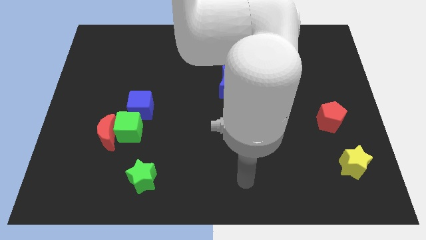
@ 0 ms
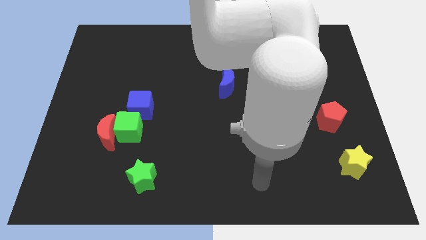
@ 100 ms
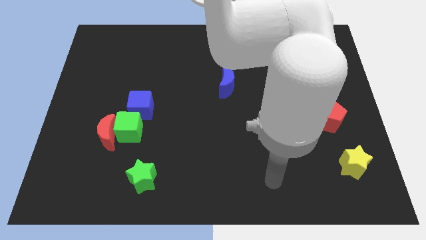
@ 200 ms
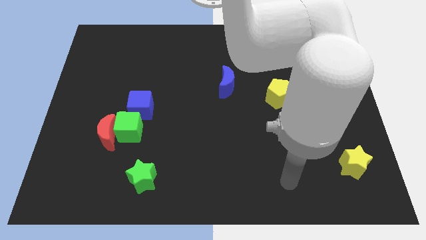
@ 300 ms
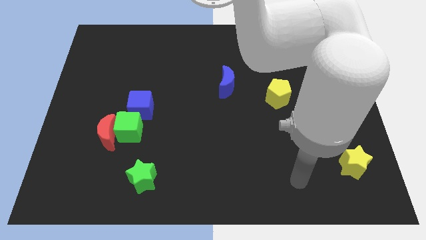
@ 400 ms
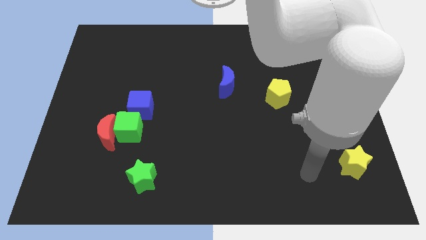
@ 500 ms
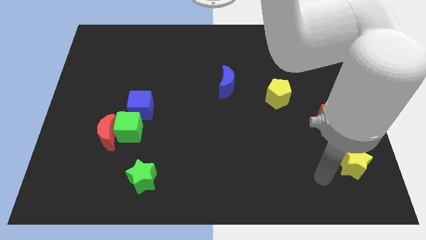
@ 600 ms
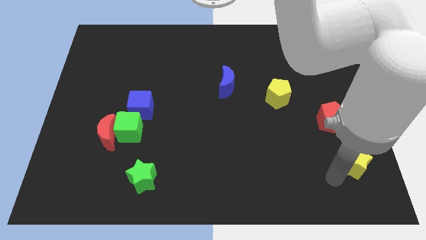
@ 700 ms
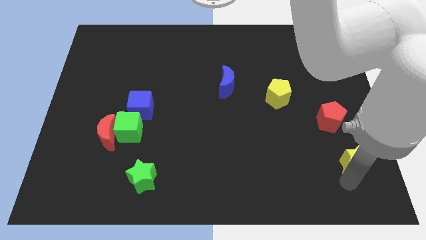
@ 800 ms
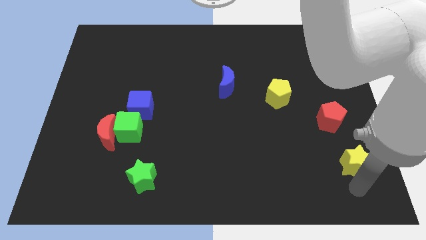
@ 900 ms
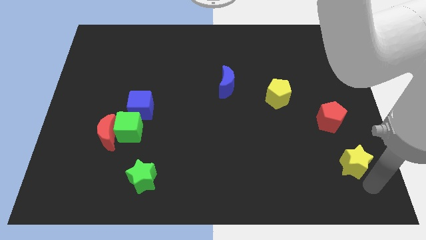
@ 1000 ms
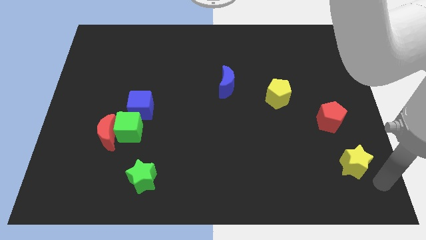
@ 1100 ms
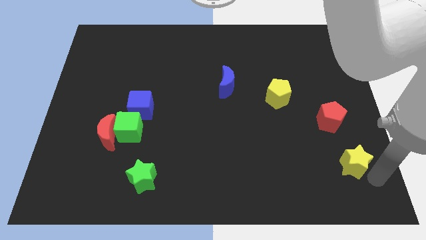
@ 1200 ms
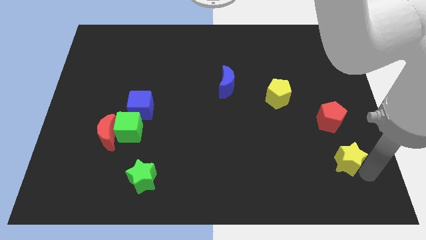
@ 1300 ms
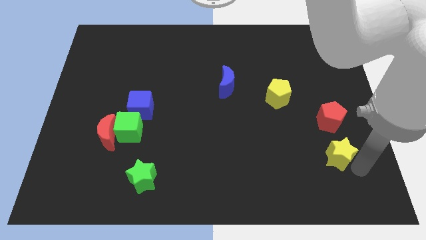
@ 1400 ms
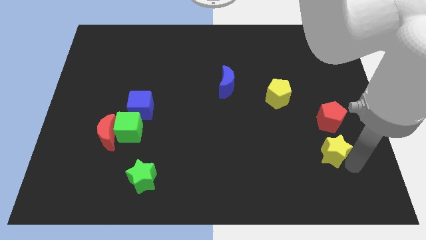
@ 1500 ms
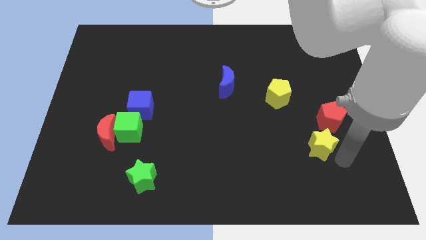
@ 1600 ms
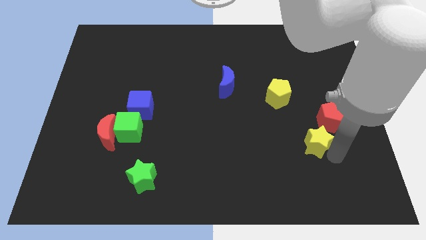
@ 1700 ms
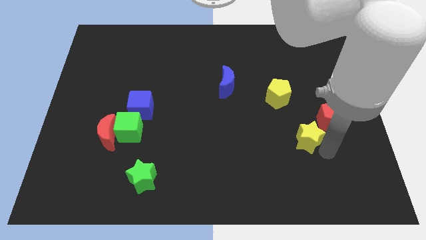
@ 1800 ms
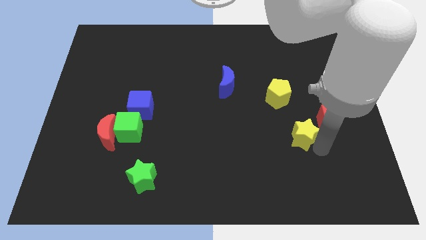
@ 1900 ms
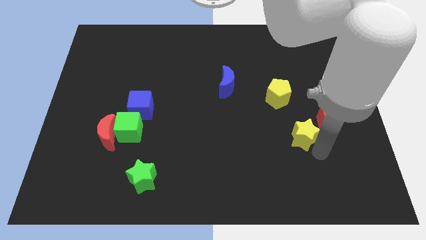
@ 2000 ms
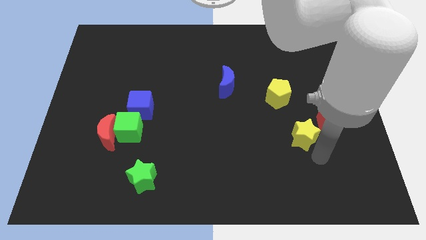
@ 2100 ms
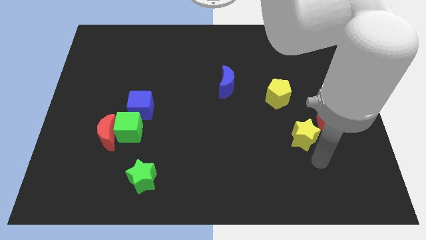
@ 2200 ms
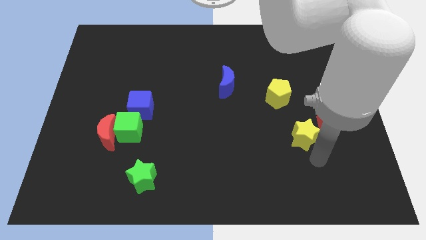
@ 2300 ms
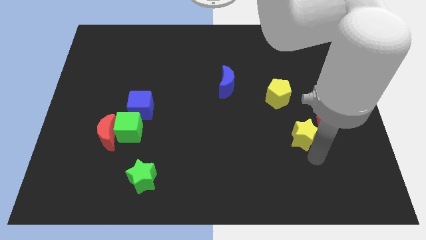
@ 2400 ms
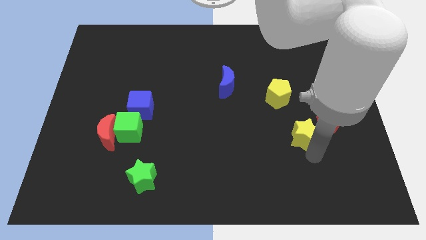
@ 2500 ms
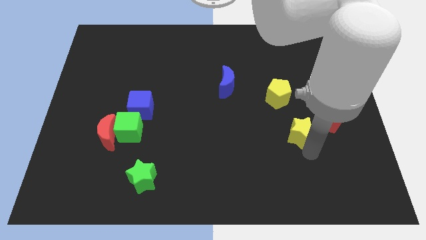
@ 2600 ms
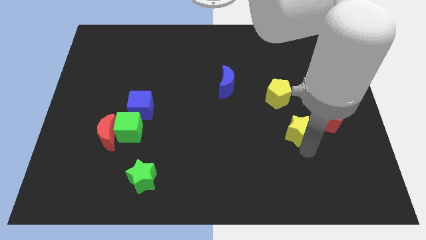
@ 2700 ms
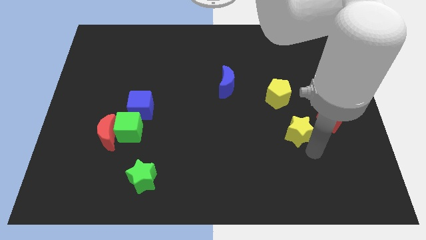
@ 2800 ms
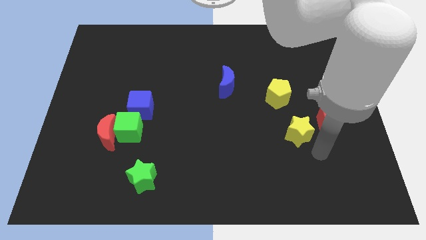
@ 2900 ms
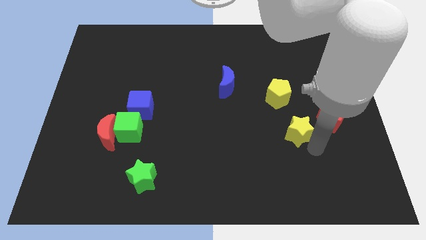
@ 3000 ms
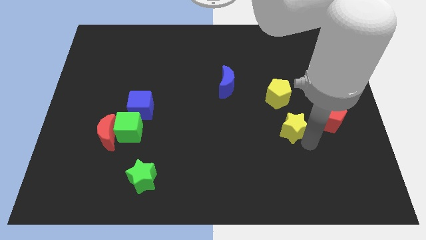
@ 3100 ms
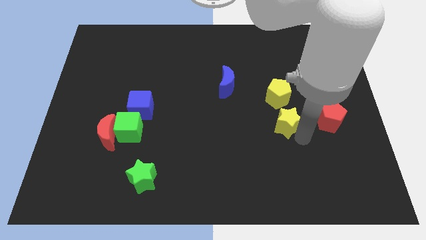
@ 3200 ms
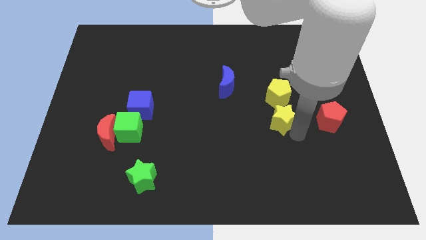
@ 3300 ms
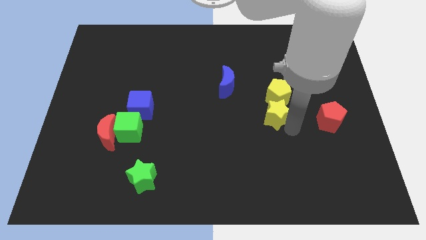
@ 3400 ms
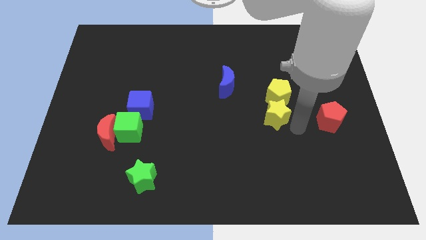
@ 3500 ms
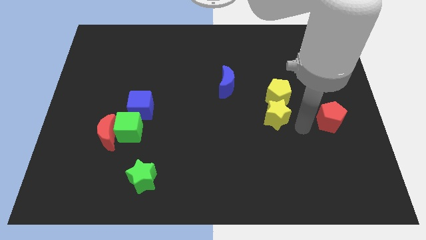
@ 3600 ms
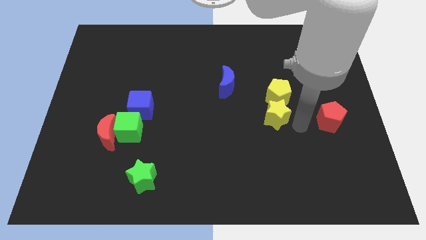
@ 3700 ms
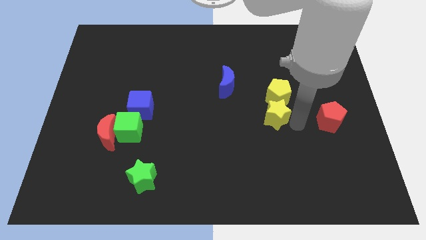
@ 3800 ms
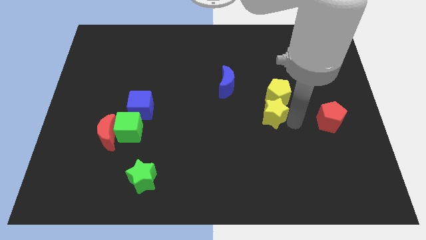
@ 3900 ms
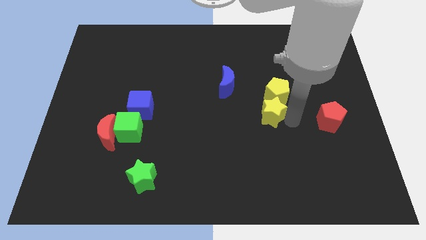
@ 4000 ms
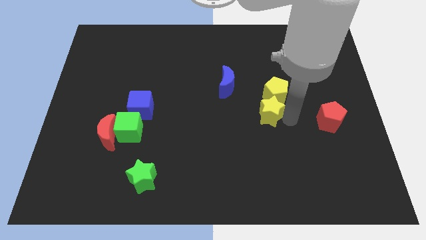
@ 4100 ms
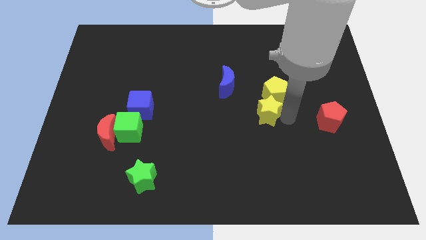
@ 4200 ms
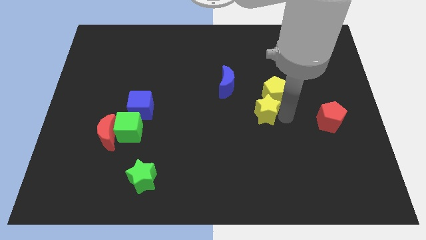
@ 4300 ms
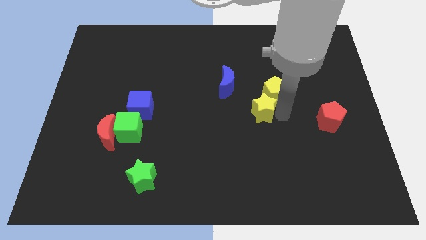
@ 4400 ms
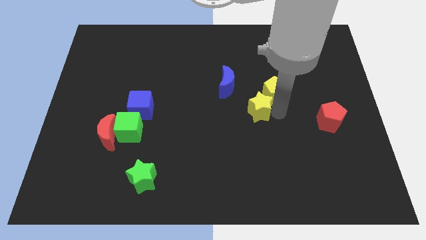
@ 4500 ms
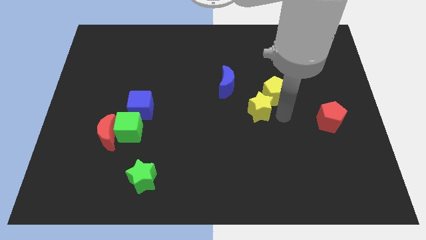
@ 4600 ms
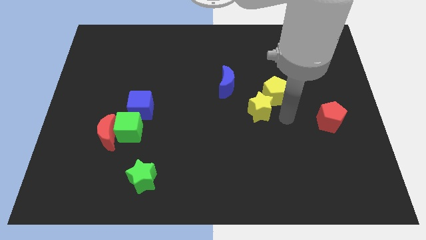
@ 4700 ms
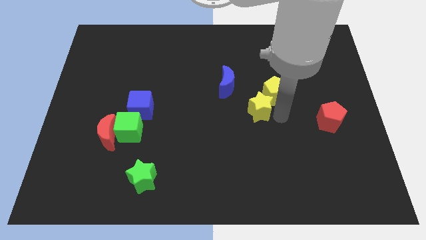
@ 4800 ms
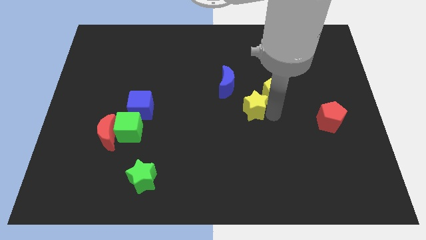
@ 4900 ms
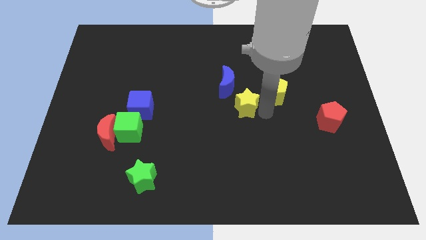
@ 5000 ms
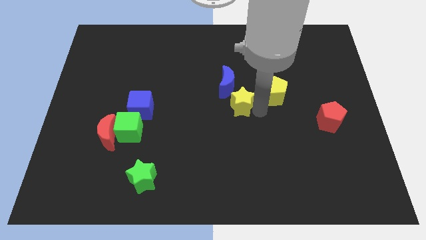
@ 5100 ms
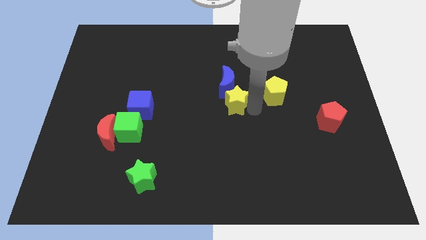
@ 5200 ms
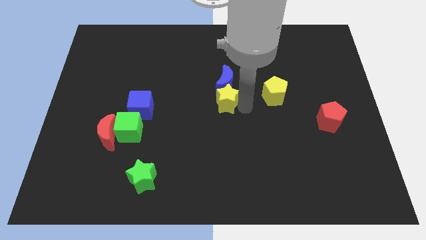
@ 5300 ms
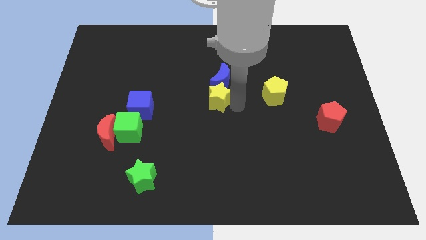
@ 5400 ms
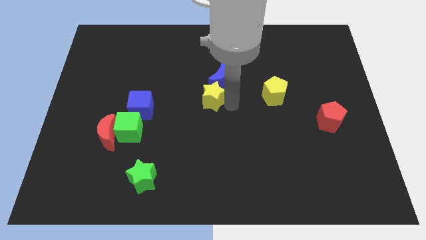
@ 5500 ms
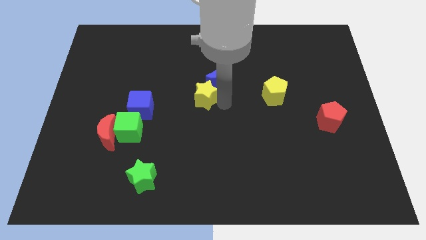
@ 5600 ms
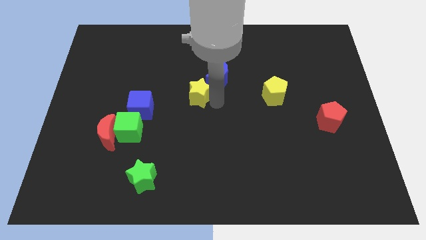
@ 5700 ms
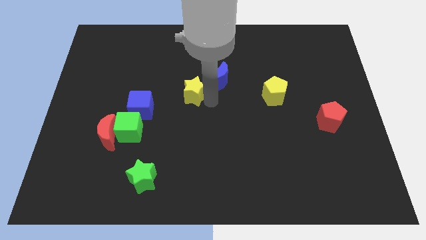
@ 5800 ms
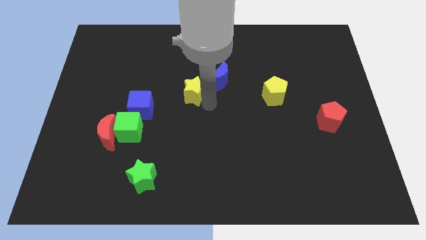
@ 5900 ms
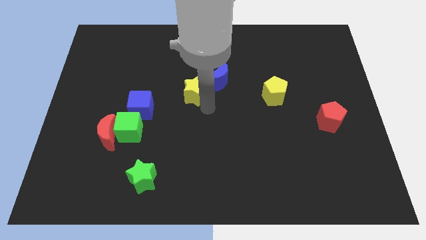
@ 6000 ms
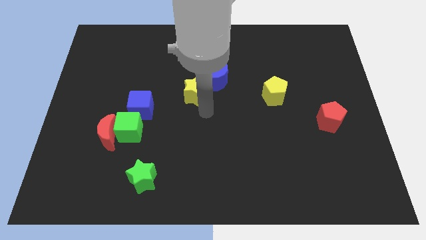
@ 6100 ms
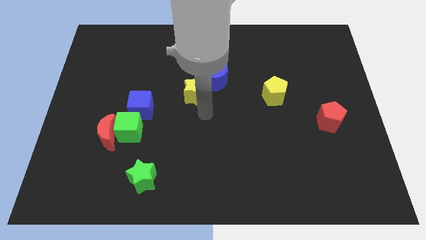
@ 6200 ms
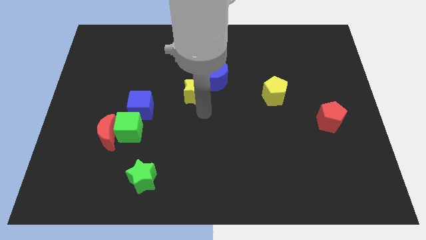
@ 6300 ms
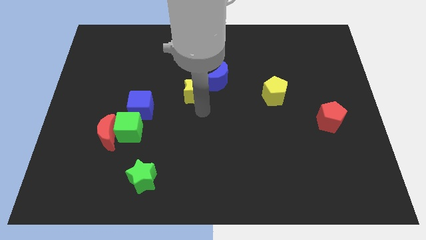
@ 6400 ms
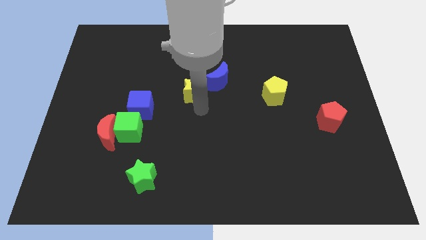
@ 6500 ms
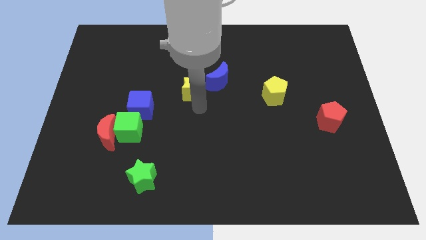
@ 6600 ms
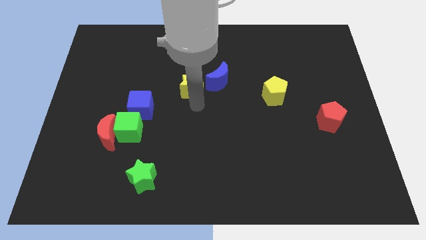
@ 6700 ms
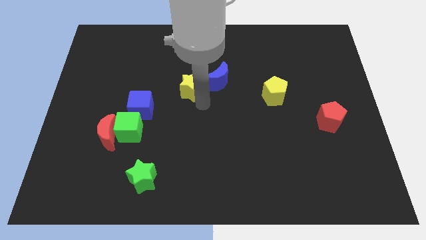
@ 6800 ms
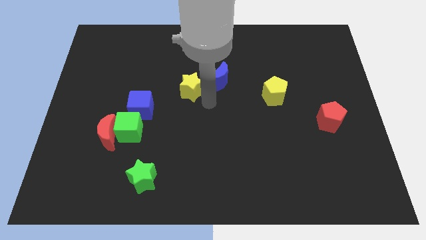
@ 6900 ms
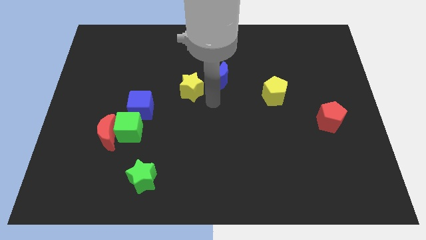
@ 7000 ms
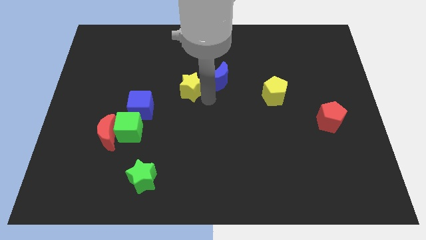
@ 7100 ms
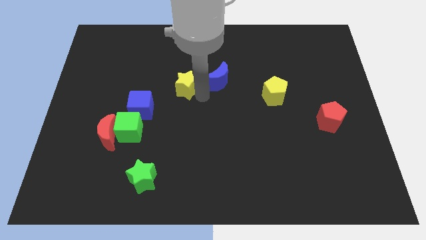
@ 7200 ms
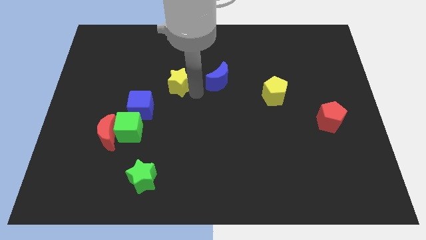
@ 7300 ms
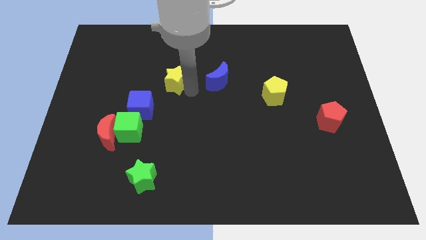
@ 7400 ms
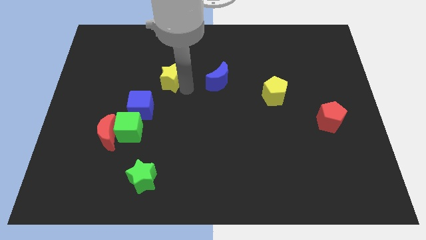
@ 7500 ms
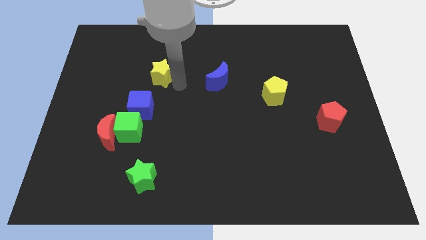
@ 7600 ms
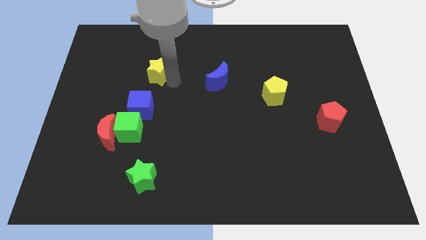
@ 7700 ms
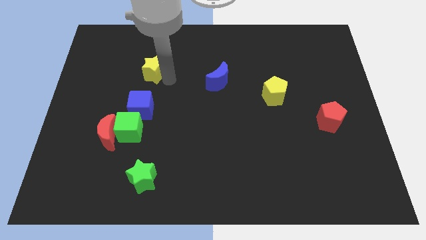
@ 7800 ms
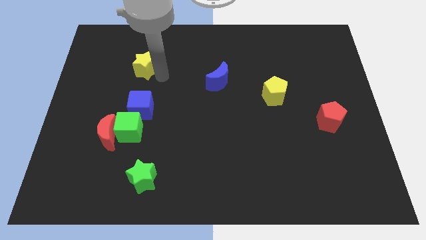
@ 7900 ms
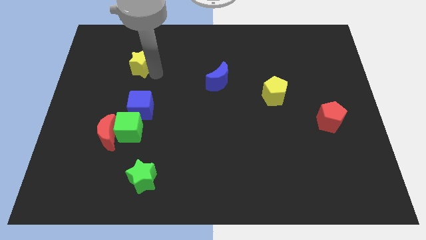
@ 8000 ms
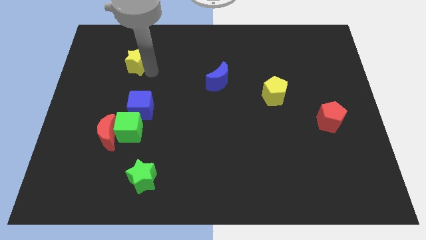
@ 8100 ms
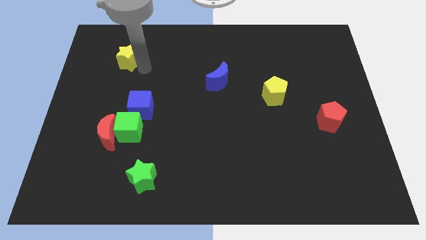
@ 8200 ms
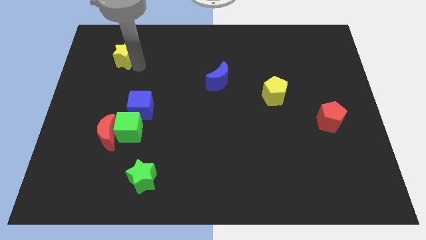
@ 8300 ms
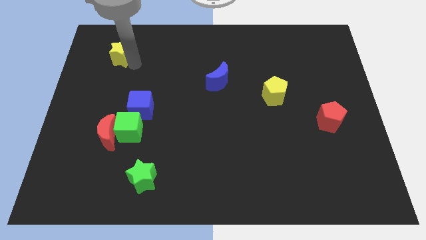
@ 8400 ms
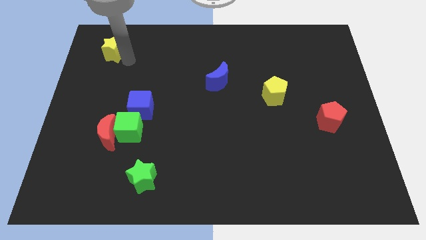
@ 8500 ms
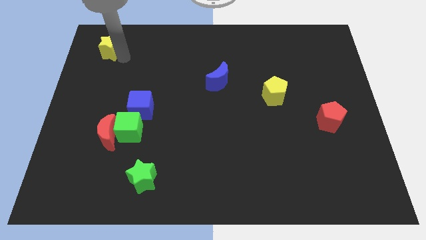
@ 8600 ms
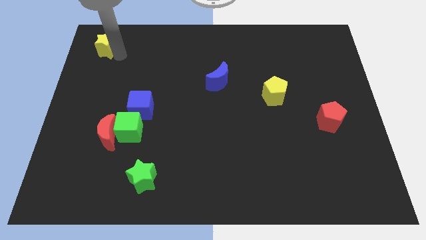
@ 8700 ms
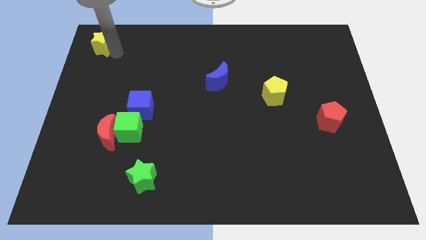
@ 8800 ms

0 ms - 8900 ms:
push the yellow star to the top left corner
